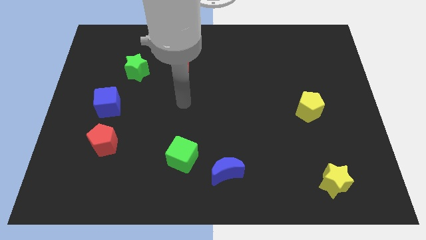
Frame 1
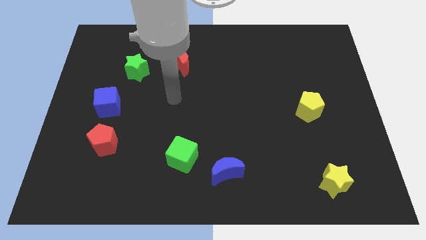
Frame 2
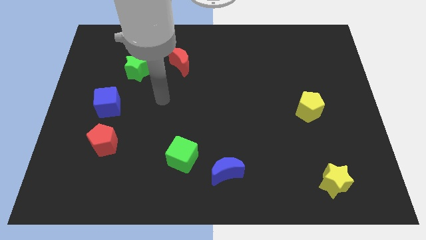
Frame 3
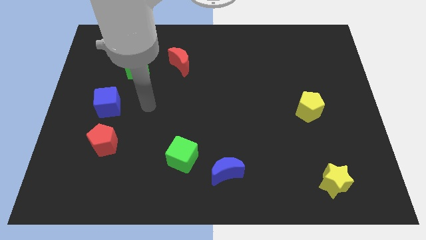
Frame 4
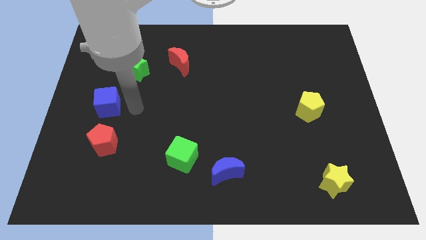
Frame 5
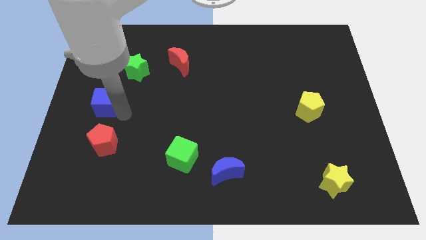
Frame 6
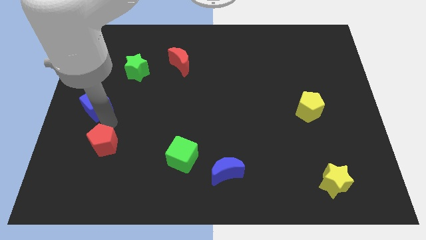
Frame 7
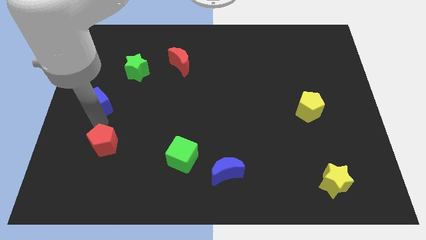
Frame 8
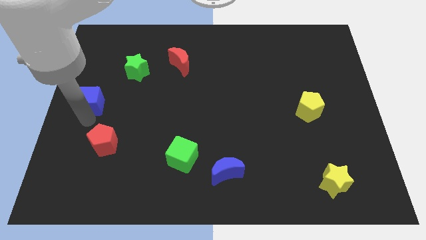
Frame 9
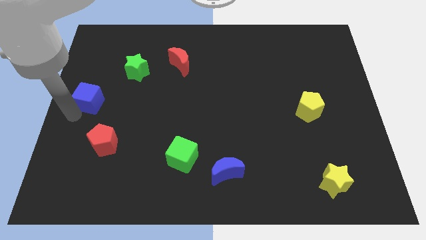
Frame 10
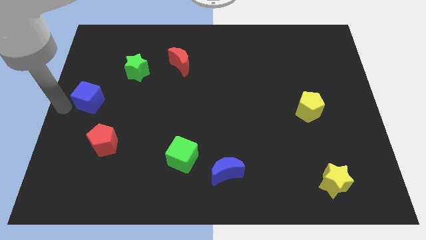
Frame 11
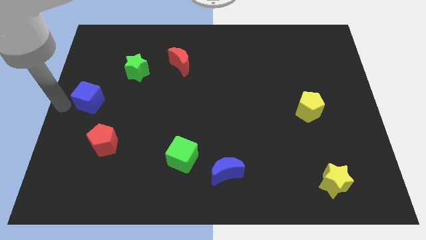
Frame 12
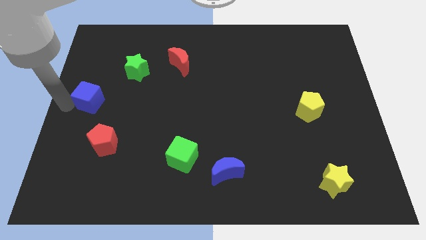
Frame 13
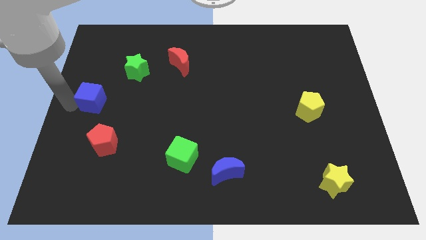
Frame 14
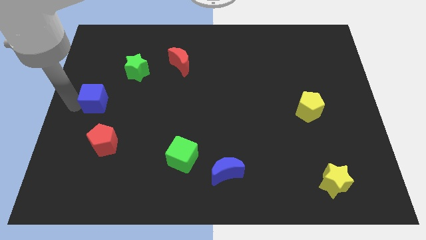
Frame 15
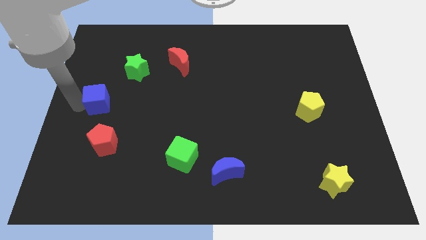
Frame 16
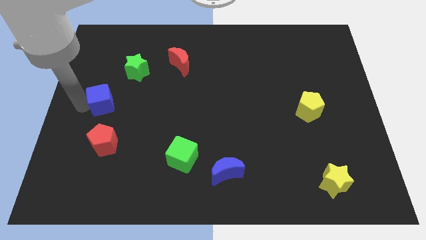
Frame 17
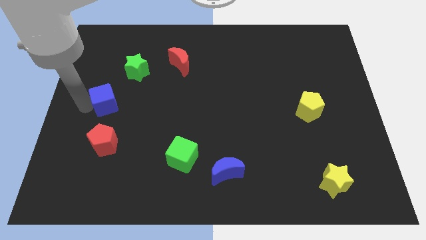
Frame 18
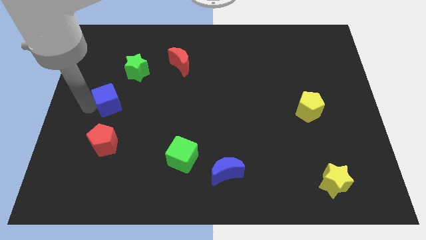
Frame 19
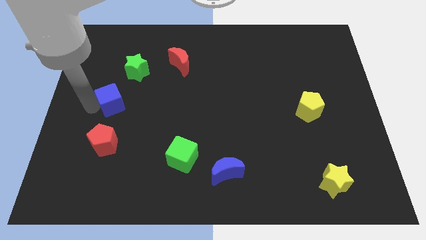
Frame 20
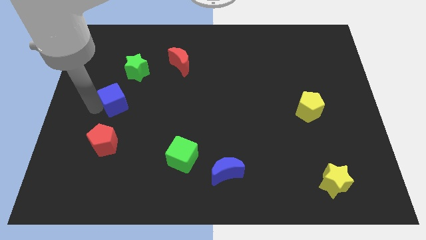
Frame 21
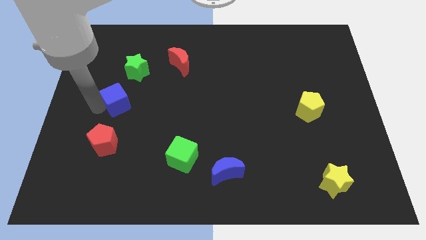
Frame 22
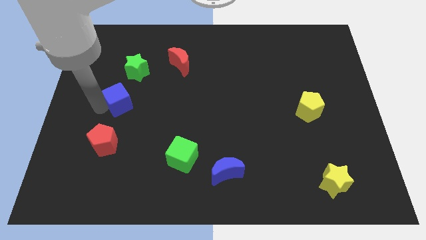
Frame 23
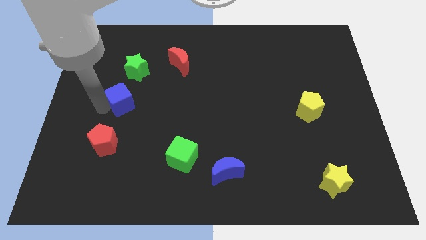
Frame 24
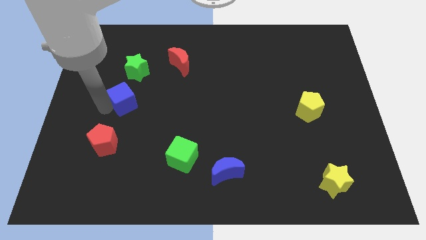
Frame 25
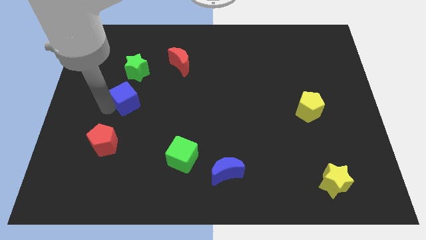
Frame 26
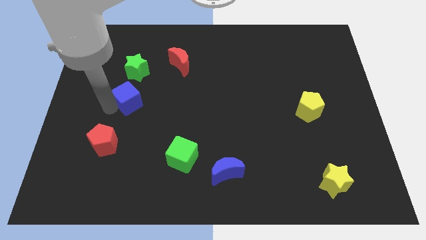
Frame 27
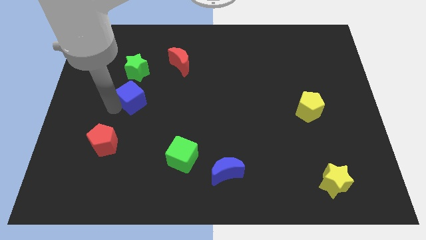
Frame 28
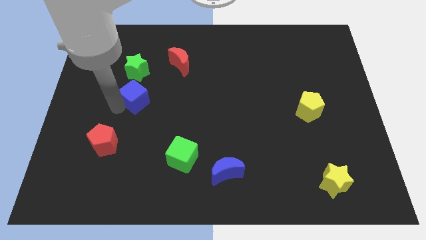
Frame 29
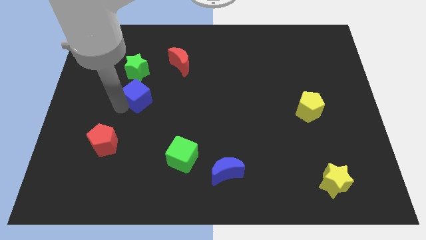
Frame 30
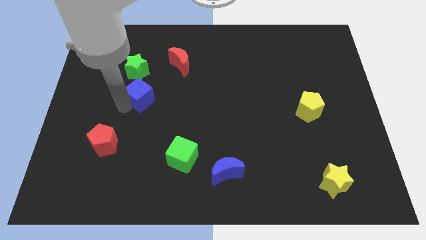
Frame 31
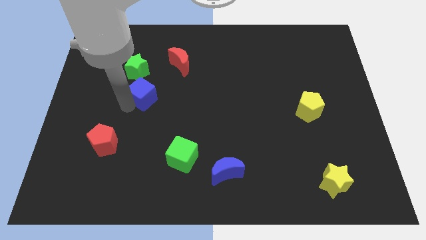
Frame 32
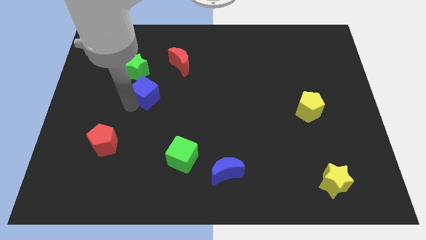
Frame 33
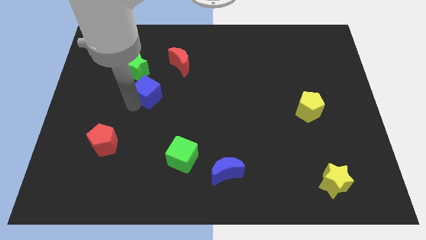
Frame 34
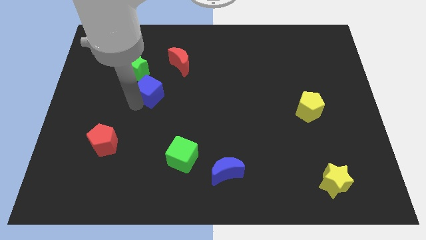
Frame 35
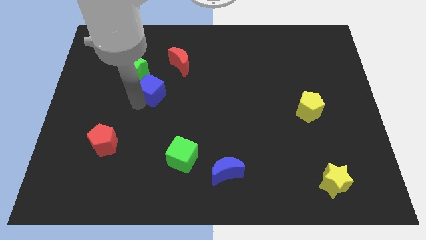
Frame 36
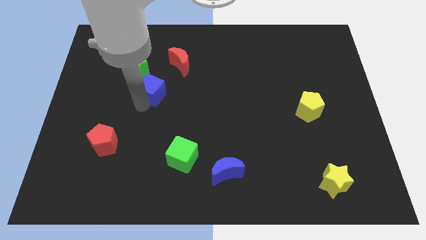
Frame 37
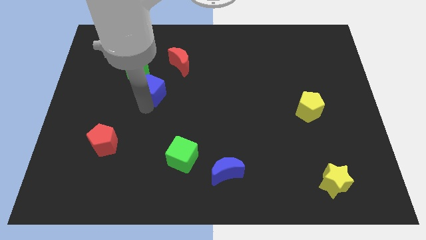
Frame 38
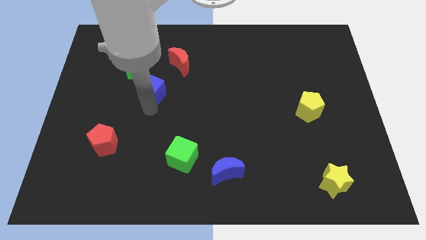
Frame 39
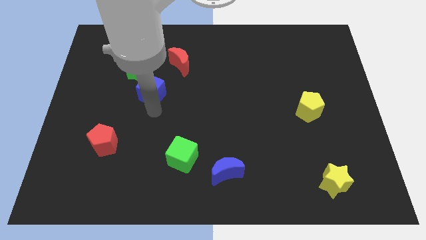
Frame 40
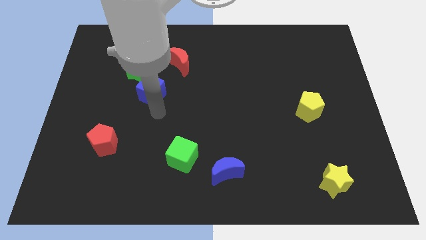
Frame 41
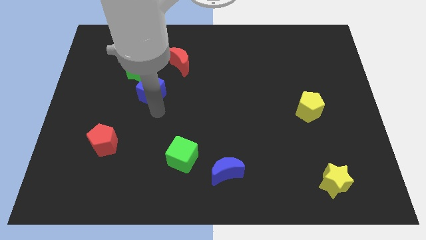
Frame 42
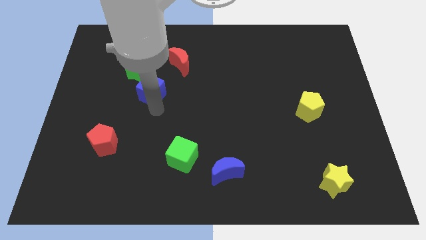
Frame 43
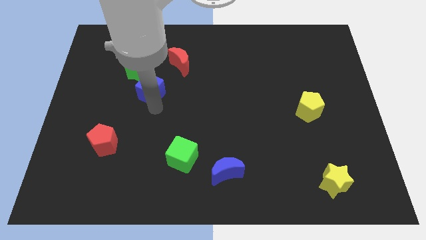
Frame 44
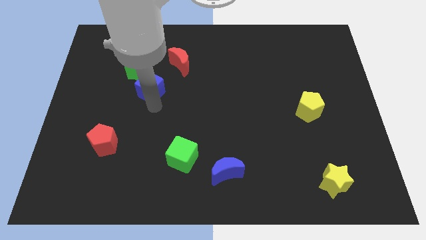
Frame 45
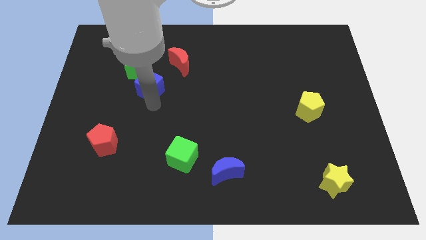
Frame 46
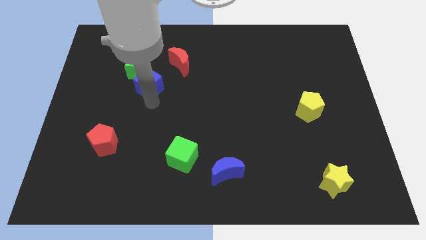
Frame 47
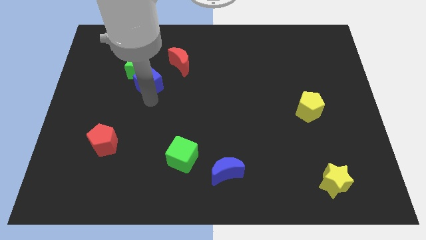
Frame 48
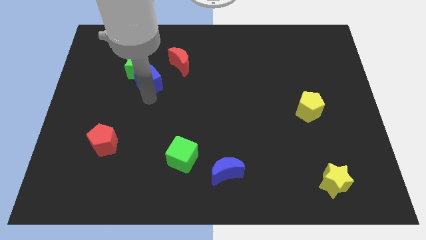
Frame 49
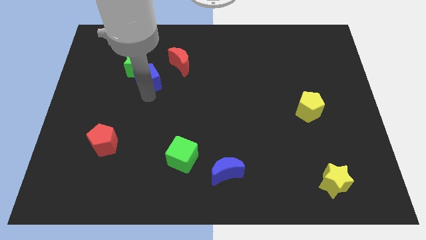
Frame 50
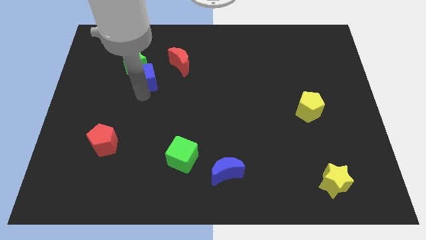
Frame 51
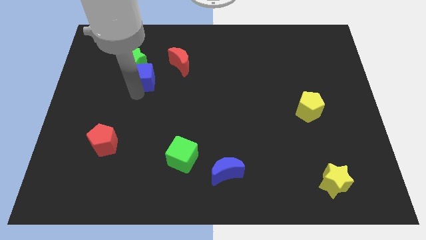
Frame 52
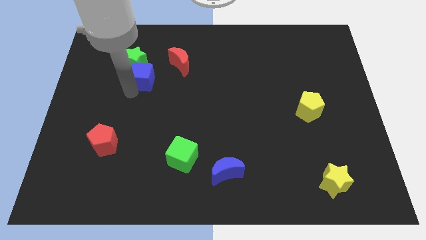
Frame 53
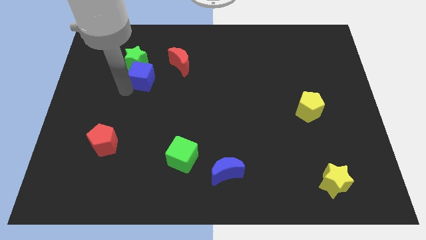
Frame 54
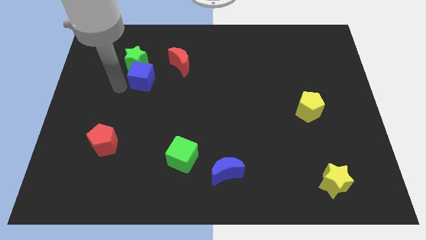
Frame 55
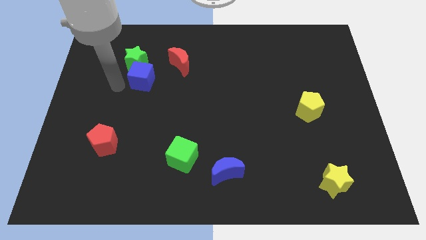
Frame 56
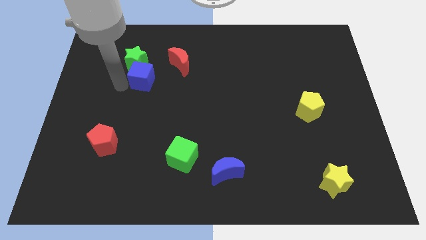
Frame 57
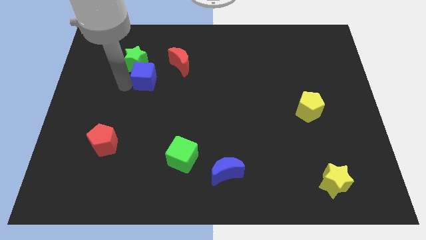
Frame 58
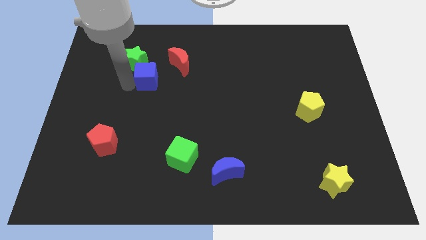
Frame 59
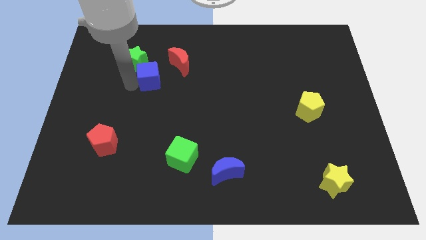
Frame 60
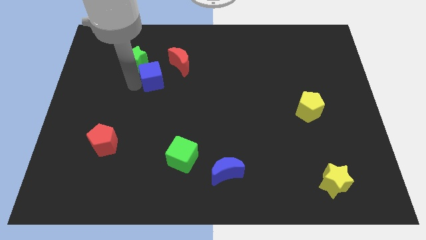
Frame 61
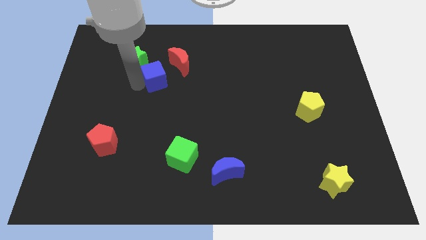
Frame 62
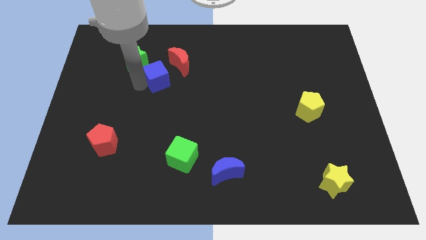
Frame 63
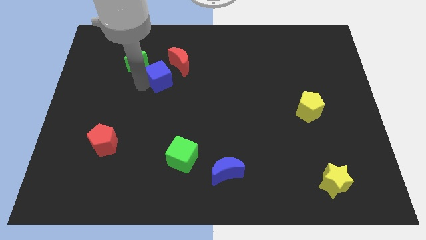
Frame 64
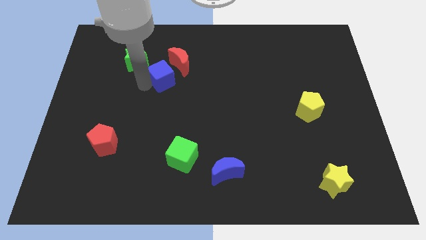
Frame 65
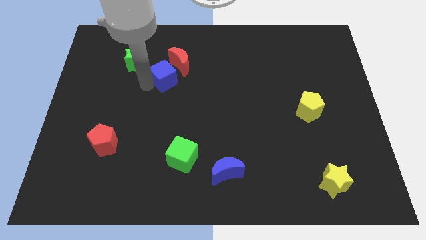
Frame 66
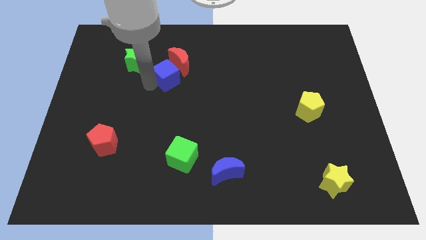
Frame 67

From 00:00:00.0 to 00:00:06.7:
put the blue cube to the red moon
